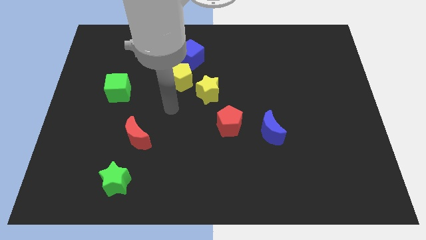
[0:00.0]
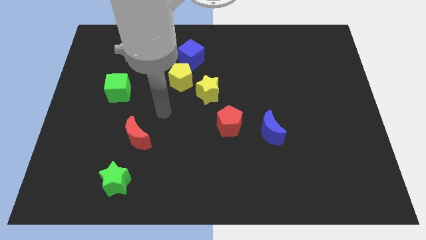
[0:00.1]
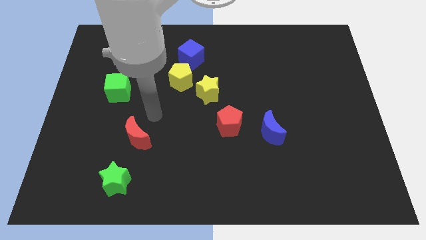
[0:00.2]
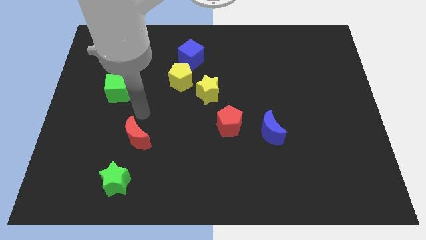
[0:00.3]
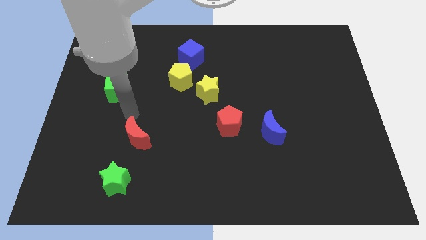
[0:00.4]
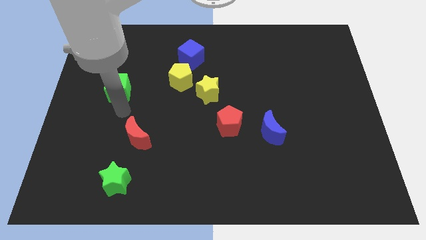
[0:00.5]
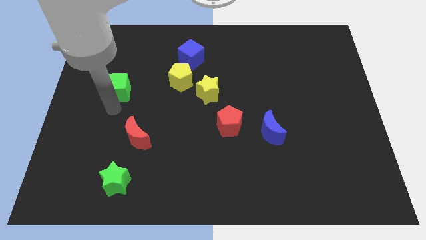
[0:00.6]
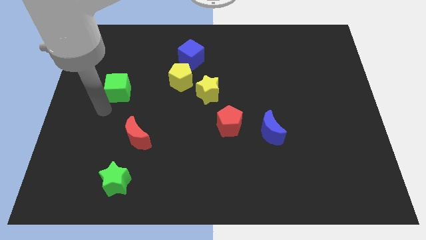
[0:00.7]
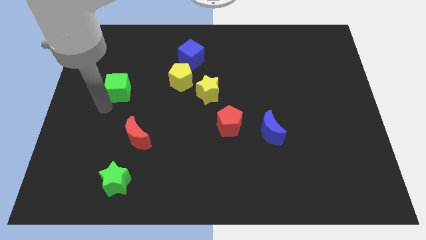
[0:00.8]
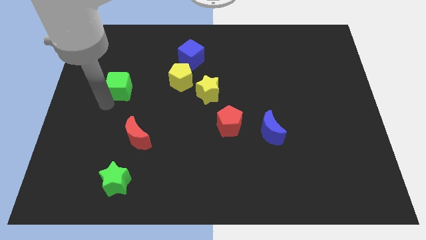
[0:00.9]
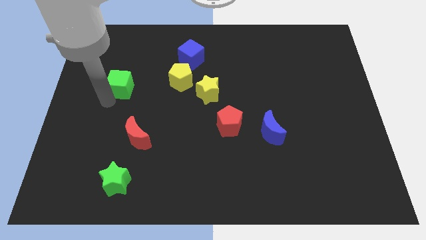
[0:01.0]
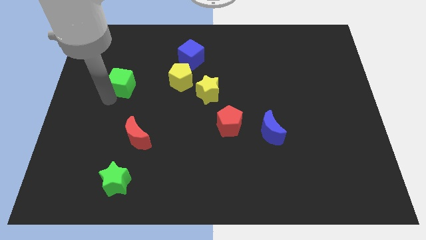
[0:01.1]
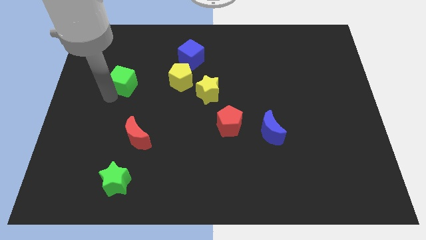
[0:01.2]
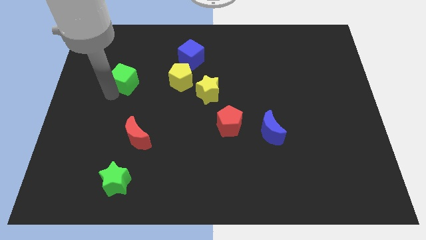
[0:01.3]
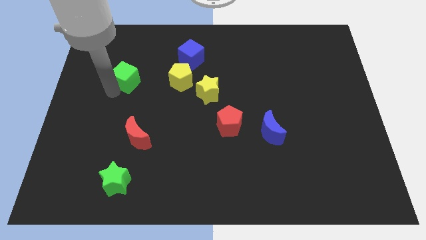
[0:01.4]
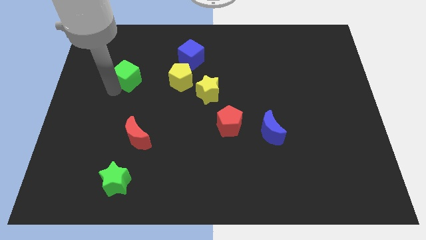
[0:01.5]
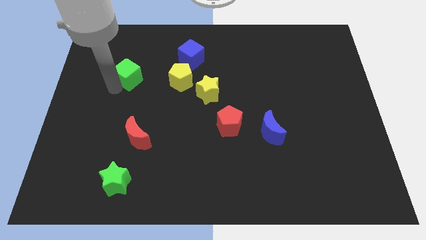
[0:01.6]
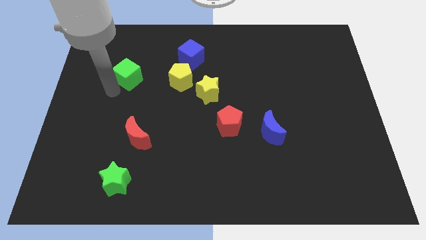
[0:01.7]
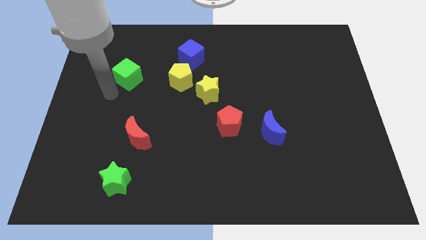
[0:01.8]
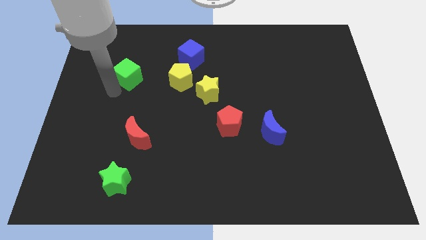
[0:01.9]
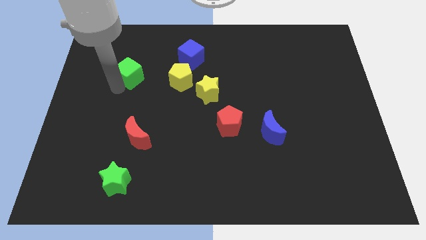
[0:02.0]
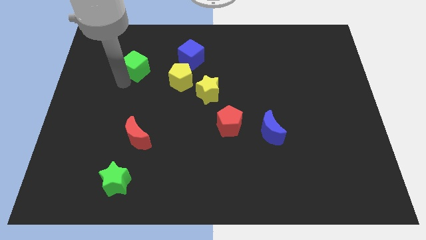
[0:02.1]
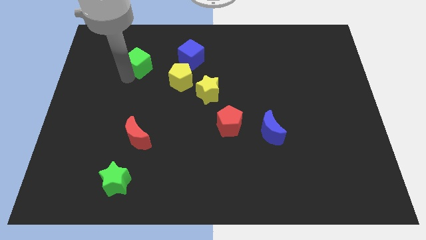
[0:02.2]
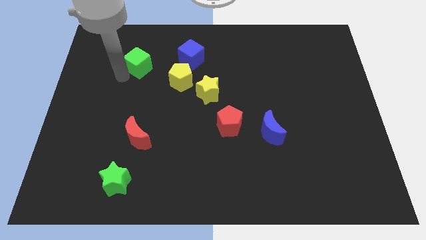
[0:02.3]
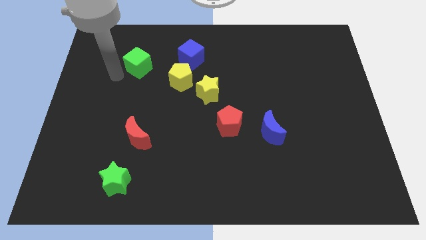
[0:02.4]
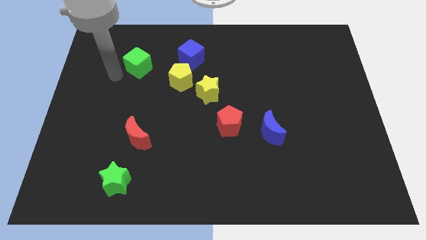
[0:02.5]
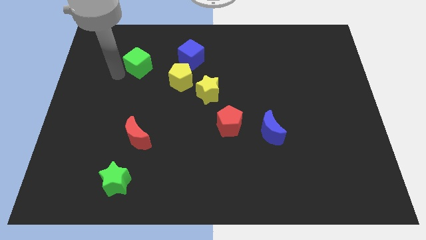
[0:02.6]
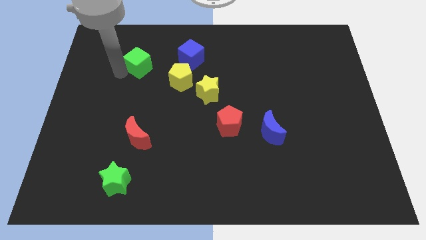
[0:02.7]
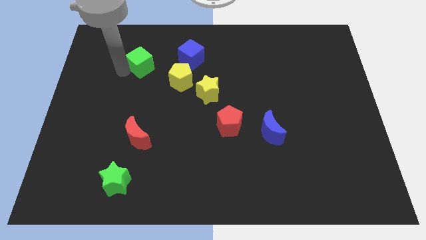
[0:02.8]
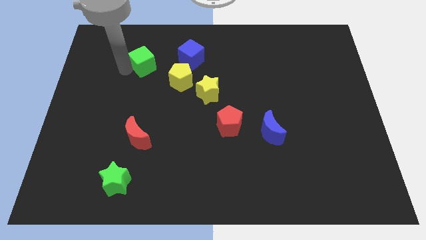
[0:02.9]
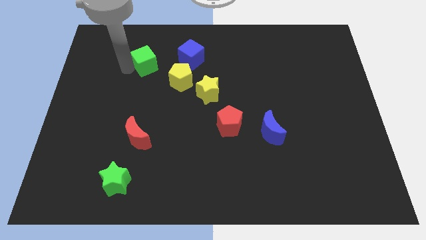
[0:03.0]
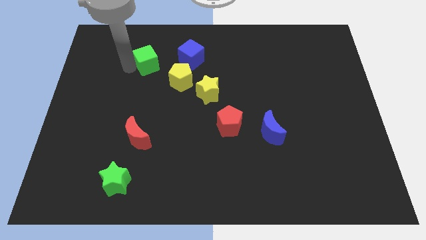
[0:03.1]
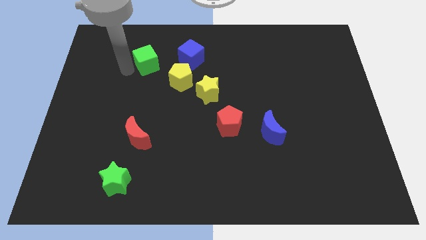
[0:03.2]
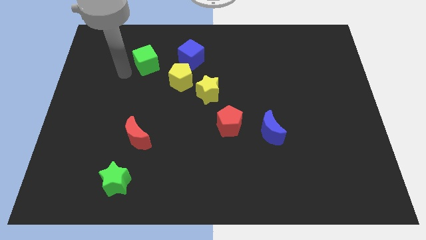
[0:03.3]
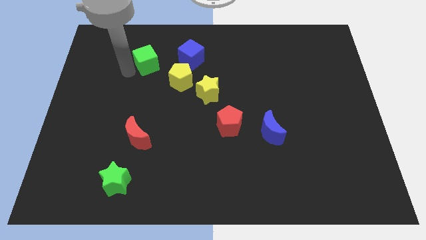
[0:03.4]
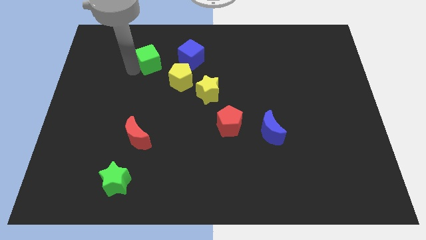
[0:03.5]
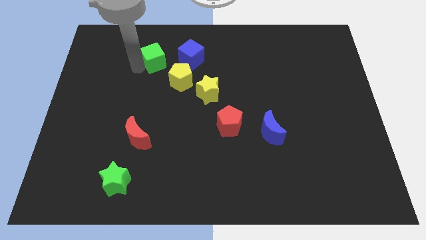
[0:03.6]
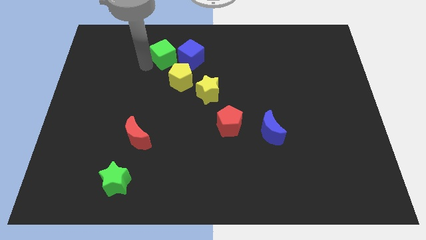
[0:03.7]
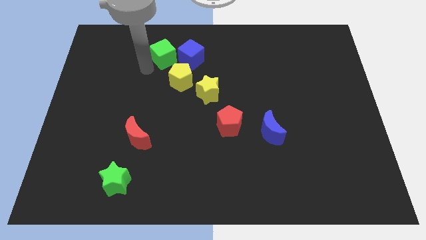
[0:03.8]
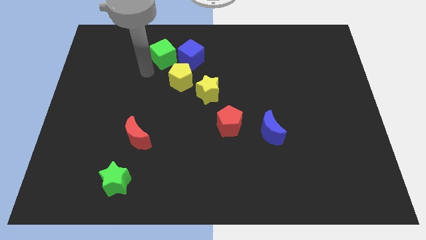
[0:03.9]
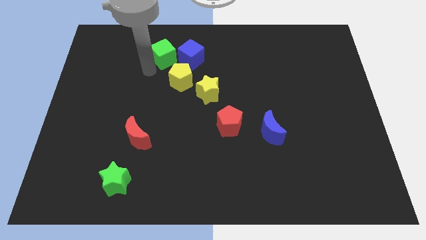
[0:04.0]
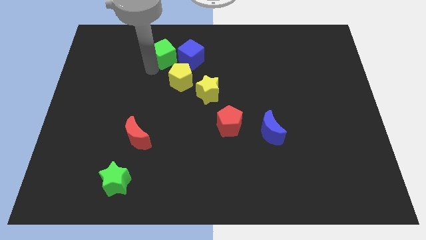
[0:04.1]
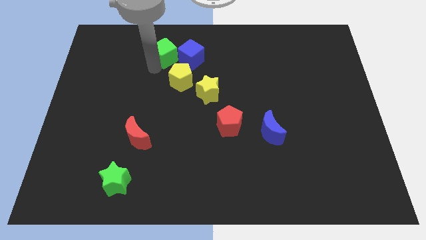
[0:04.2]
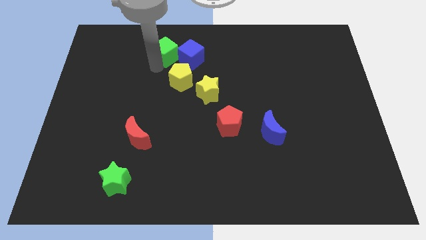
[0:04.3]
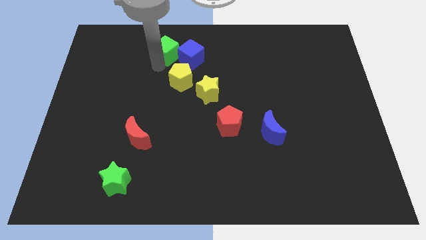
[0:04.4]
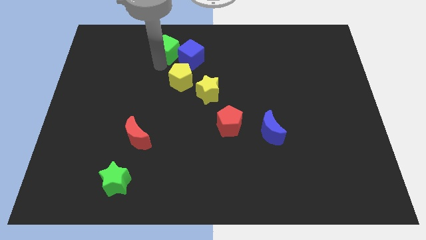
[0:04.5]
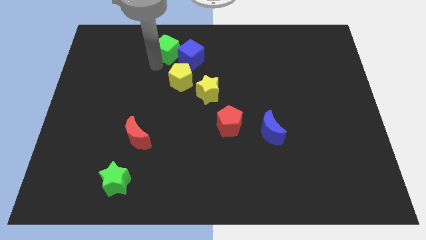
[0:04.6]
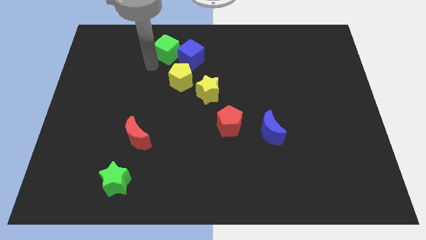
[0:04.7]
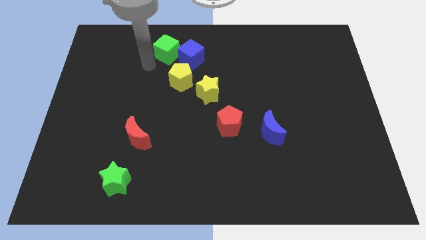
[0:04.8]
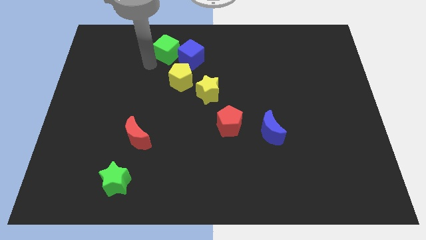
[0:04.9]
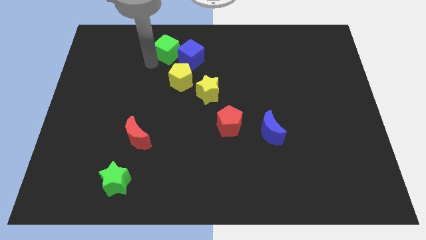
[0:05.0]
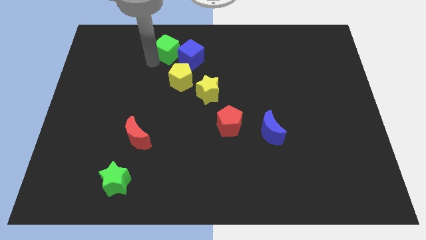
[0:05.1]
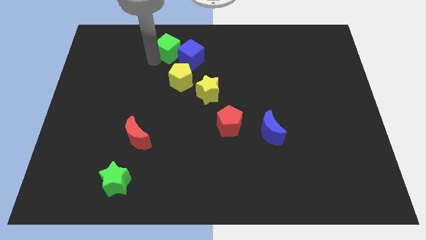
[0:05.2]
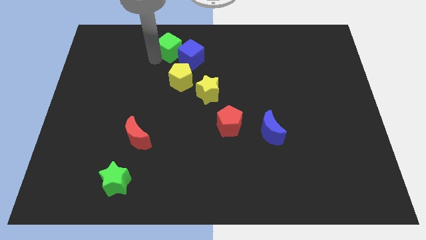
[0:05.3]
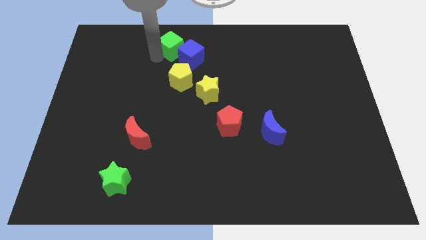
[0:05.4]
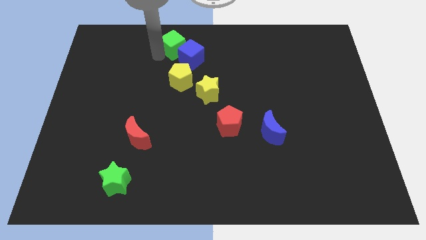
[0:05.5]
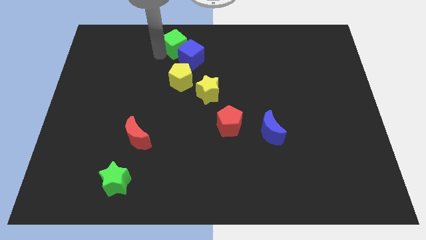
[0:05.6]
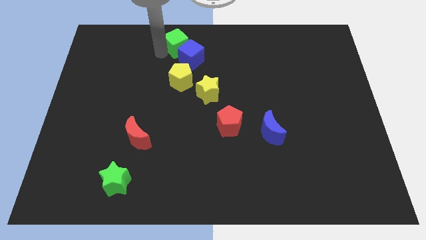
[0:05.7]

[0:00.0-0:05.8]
push the green cube to the towards your base
